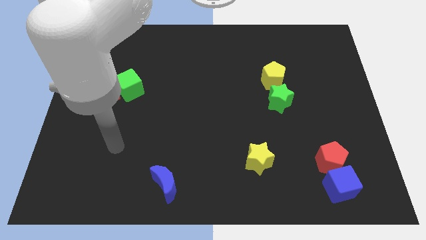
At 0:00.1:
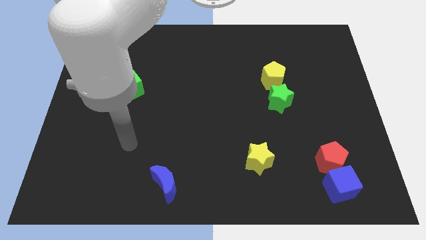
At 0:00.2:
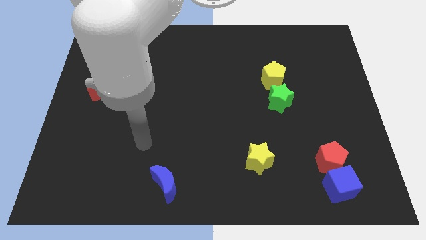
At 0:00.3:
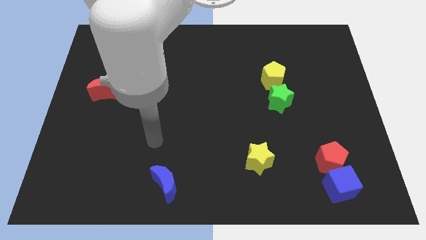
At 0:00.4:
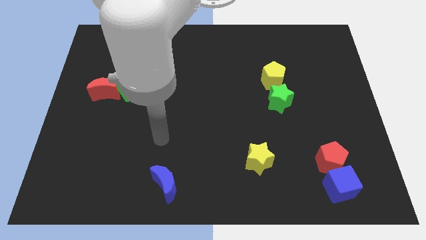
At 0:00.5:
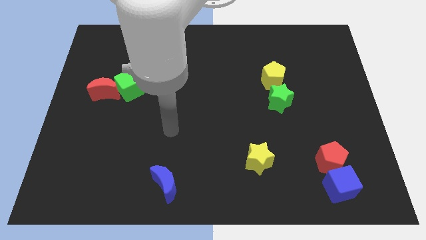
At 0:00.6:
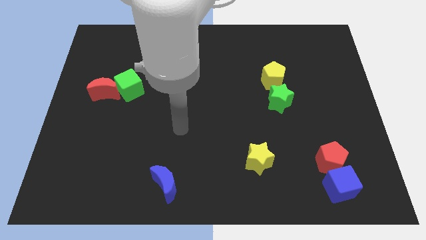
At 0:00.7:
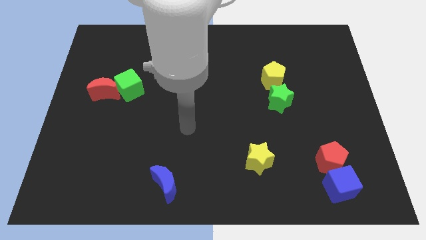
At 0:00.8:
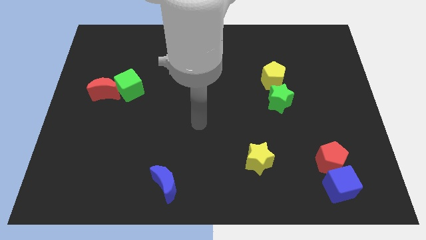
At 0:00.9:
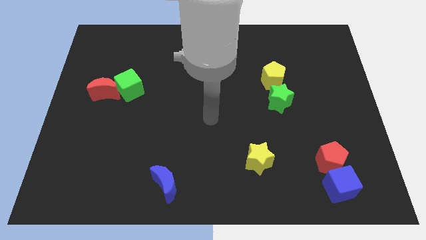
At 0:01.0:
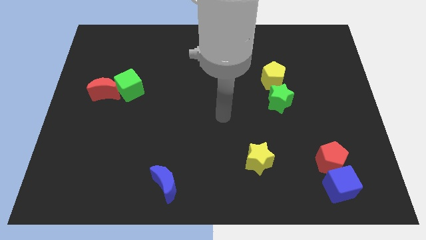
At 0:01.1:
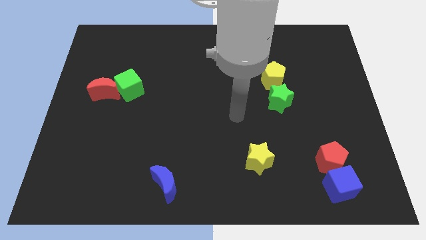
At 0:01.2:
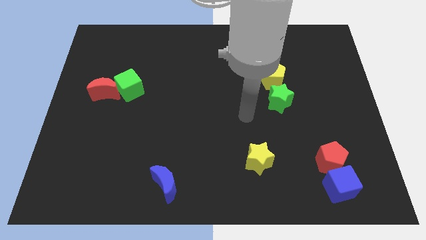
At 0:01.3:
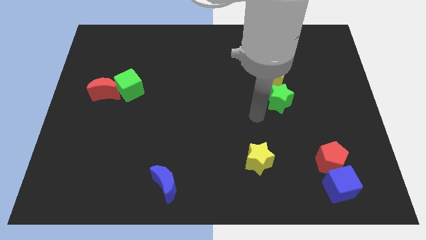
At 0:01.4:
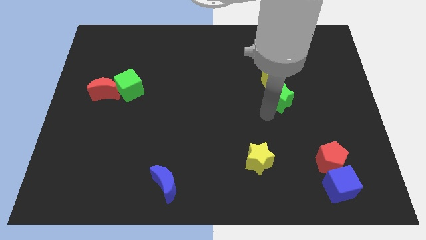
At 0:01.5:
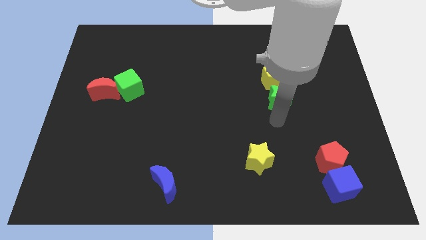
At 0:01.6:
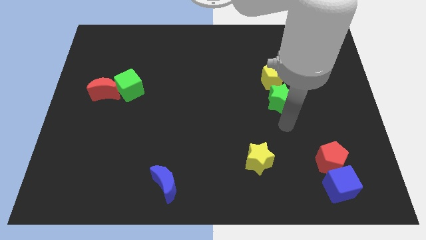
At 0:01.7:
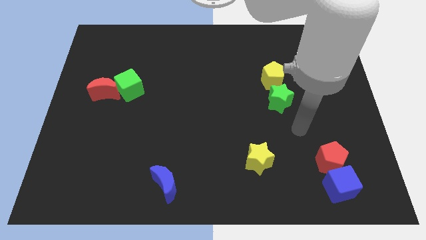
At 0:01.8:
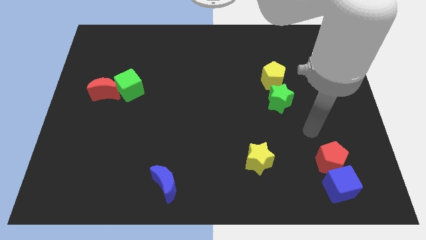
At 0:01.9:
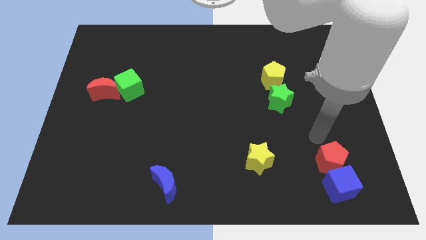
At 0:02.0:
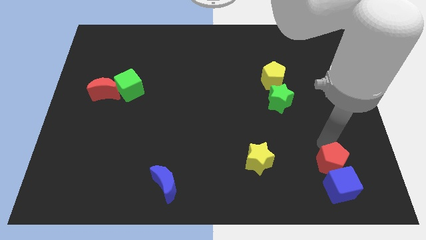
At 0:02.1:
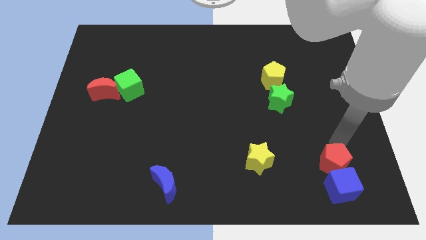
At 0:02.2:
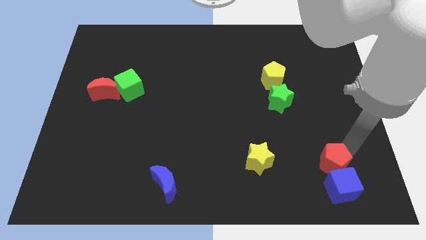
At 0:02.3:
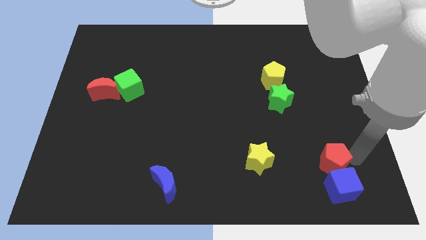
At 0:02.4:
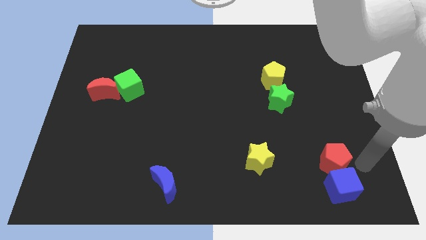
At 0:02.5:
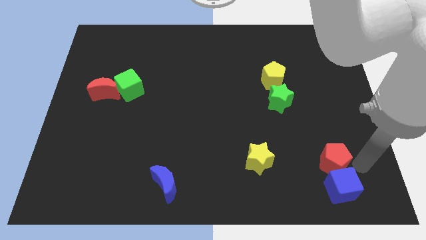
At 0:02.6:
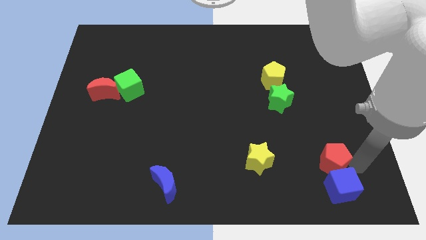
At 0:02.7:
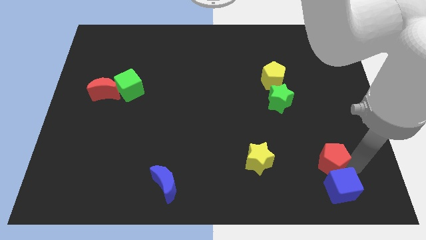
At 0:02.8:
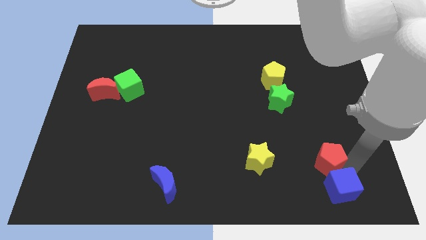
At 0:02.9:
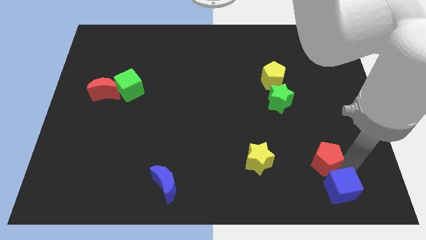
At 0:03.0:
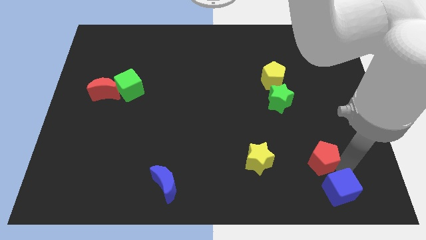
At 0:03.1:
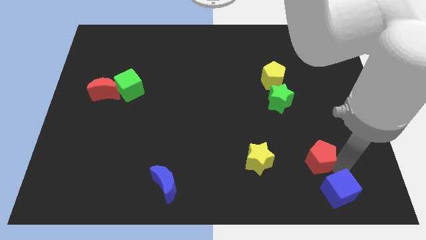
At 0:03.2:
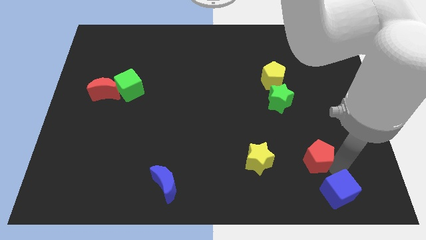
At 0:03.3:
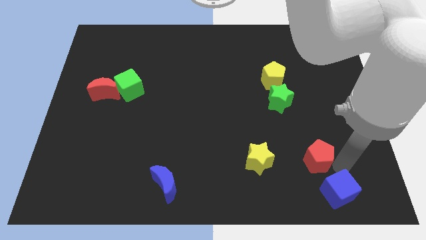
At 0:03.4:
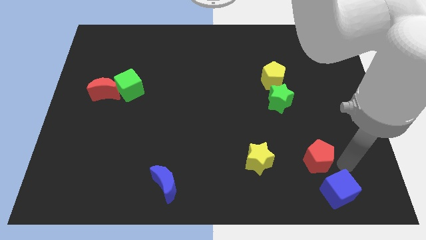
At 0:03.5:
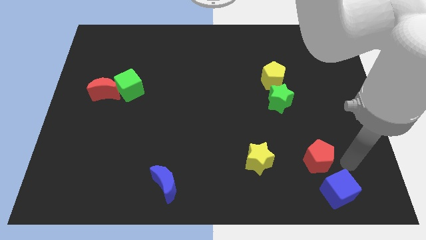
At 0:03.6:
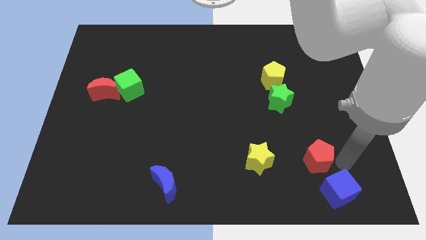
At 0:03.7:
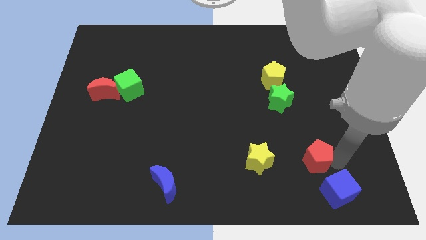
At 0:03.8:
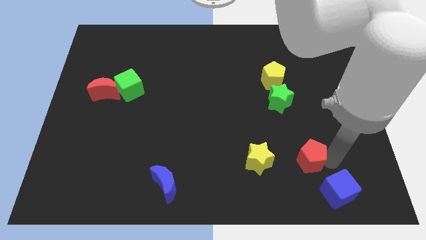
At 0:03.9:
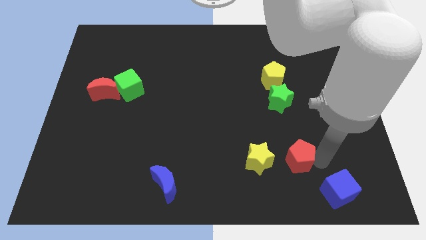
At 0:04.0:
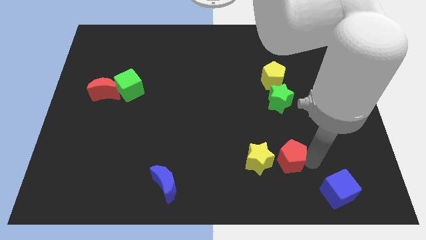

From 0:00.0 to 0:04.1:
slide the red pentagon left somewhat

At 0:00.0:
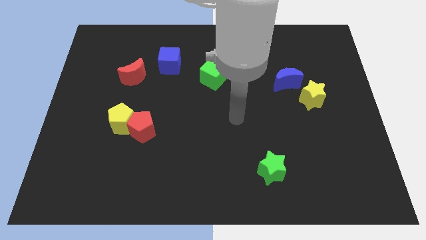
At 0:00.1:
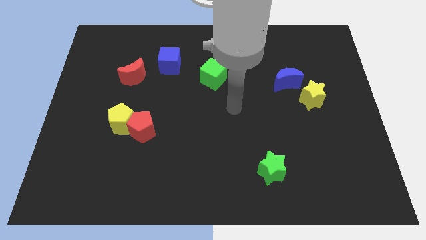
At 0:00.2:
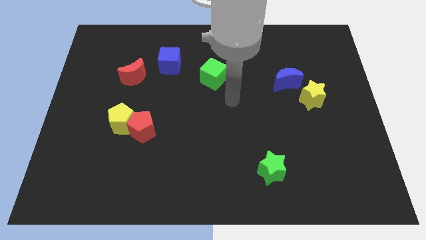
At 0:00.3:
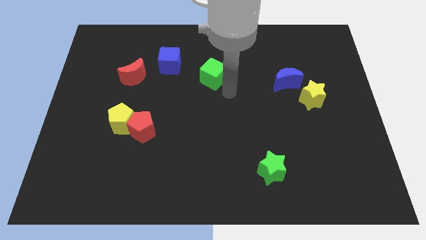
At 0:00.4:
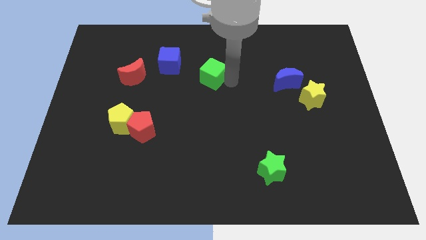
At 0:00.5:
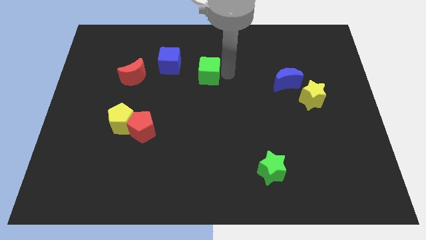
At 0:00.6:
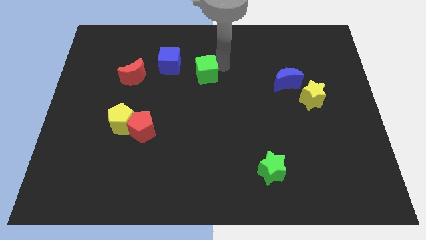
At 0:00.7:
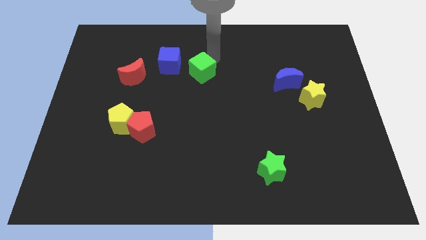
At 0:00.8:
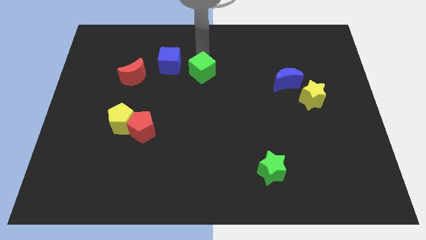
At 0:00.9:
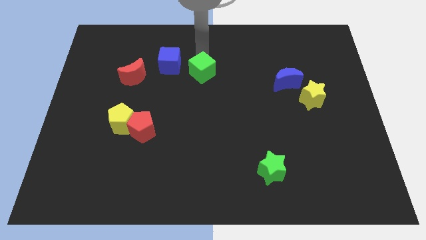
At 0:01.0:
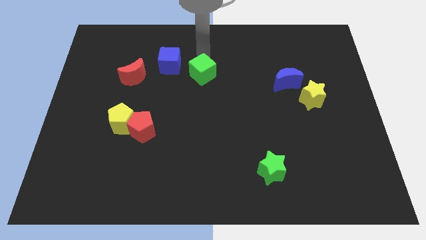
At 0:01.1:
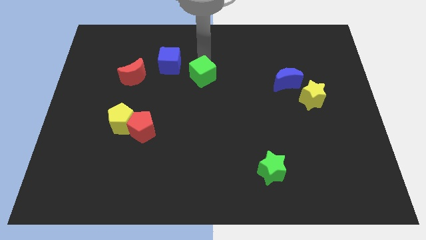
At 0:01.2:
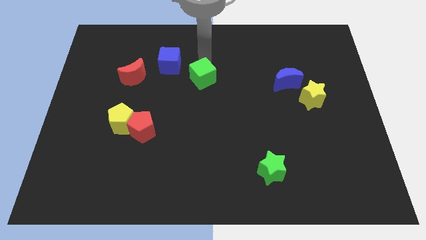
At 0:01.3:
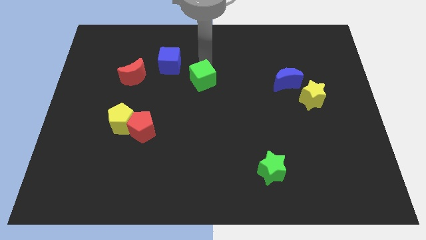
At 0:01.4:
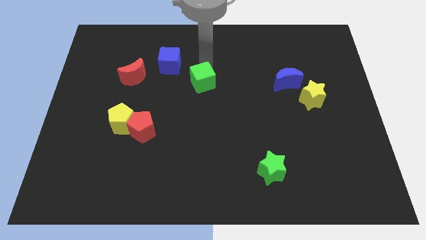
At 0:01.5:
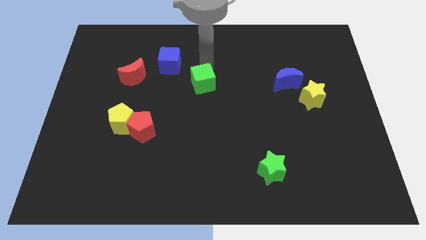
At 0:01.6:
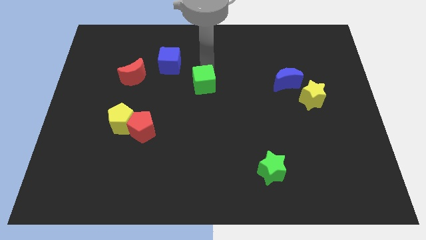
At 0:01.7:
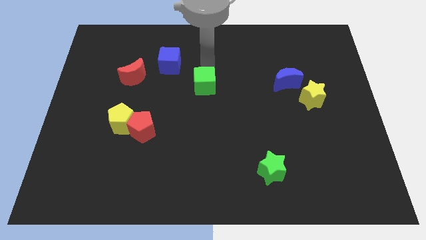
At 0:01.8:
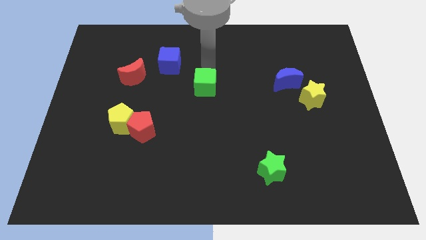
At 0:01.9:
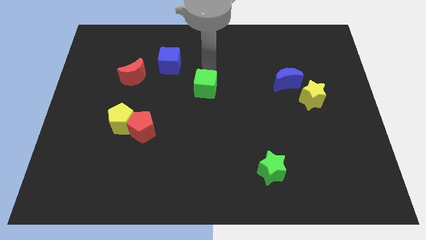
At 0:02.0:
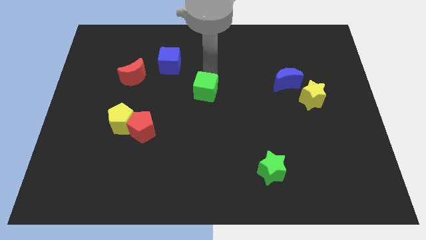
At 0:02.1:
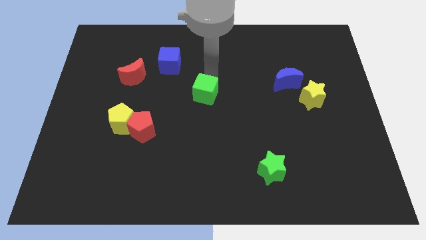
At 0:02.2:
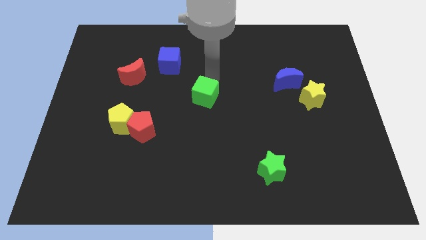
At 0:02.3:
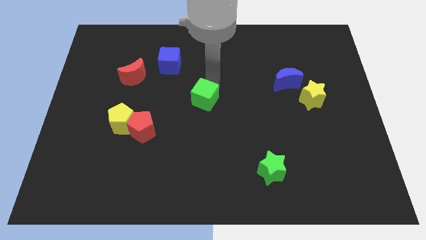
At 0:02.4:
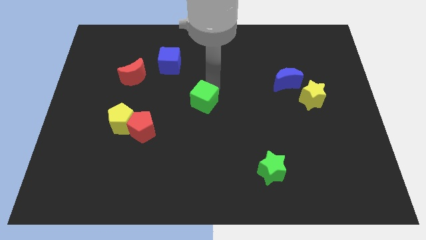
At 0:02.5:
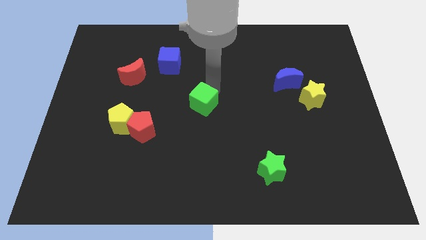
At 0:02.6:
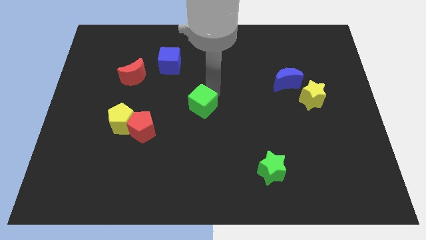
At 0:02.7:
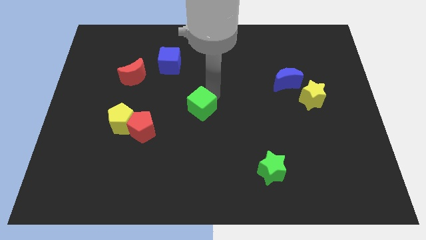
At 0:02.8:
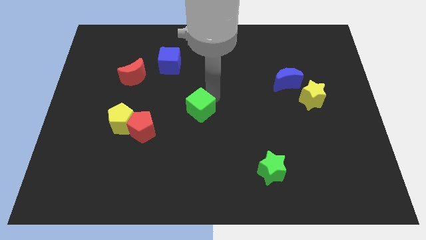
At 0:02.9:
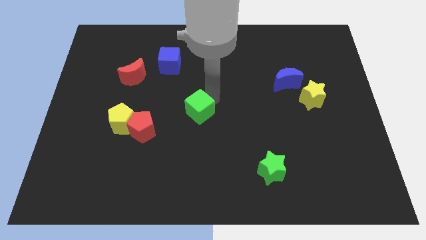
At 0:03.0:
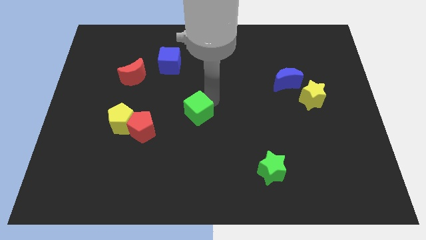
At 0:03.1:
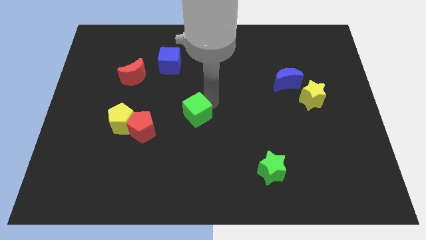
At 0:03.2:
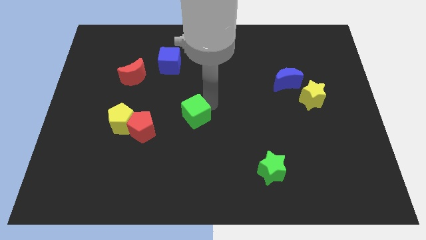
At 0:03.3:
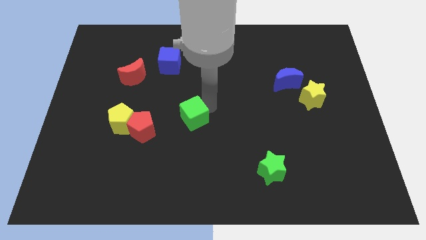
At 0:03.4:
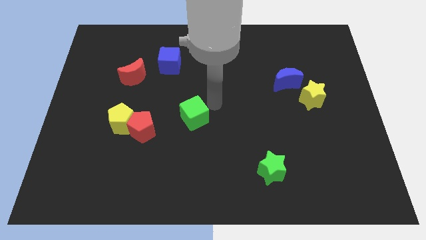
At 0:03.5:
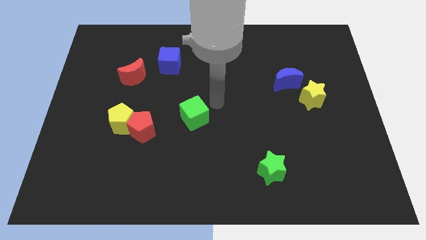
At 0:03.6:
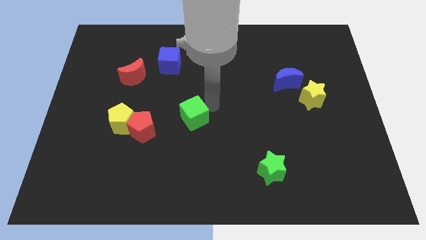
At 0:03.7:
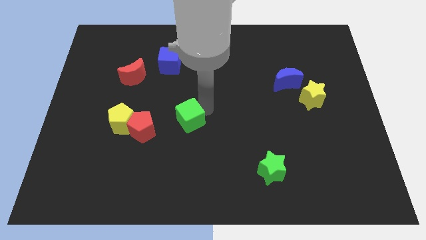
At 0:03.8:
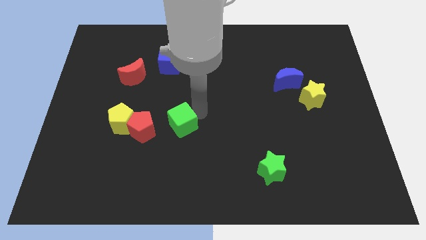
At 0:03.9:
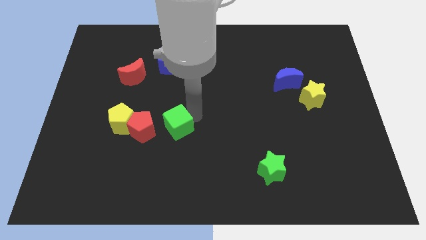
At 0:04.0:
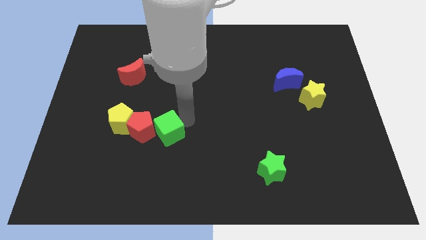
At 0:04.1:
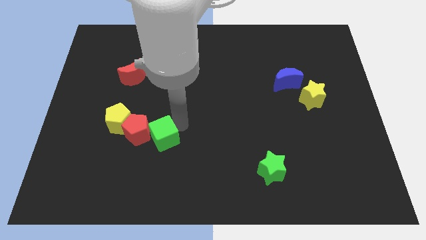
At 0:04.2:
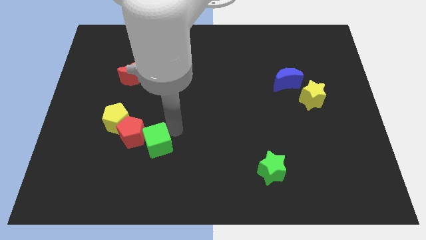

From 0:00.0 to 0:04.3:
push the green cube downwards and left
